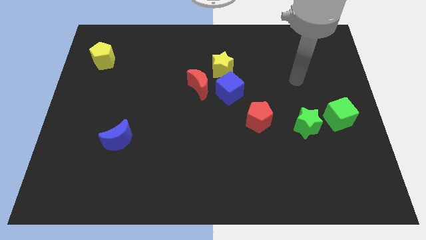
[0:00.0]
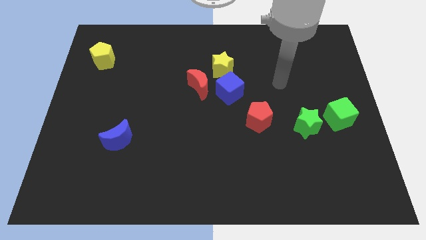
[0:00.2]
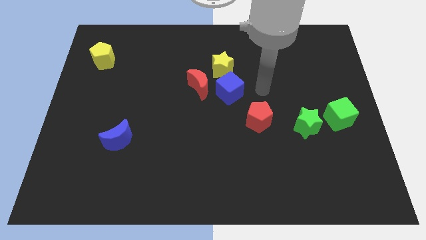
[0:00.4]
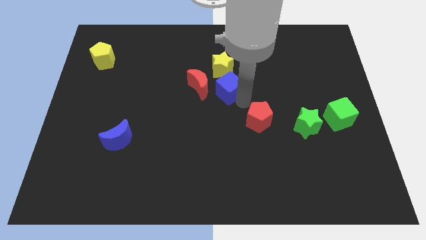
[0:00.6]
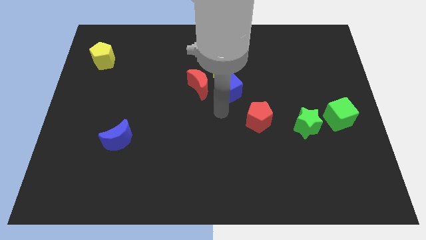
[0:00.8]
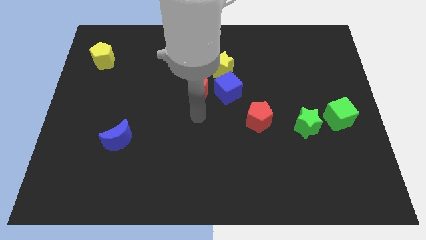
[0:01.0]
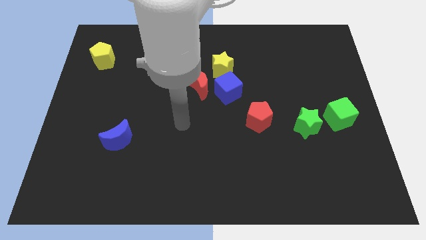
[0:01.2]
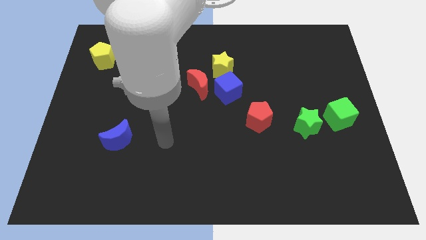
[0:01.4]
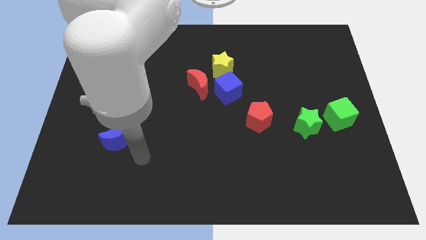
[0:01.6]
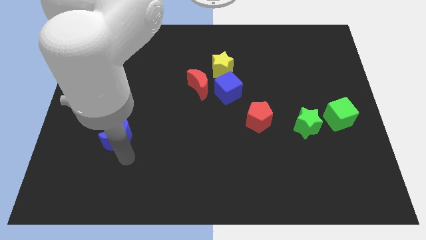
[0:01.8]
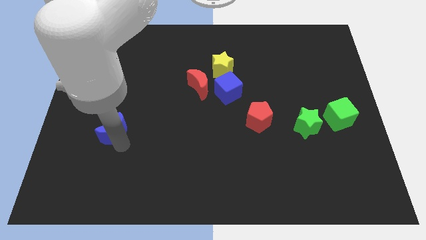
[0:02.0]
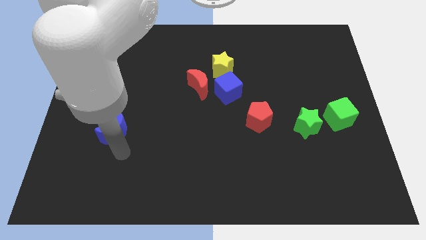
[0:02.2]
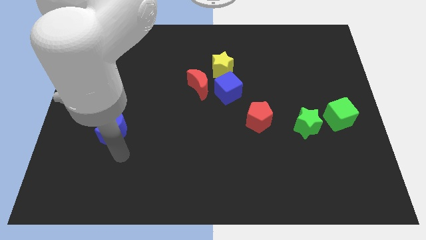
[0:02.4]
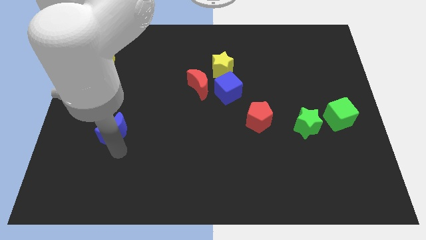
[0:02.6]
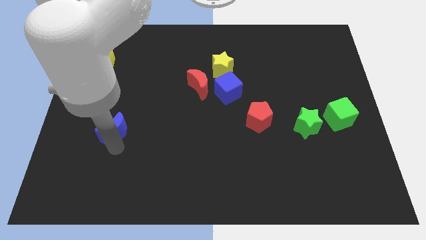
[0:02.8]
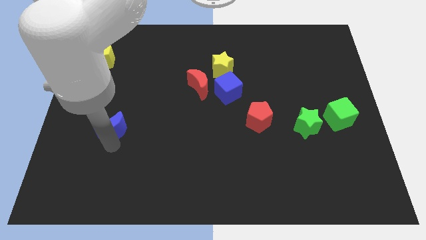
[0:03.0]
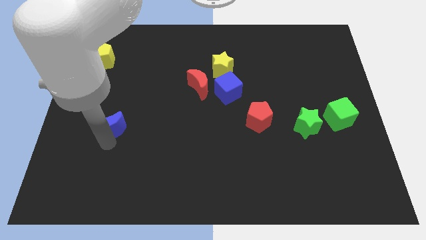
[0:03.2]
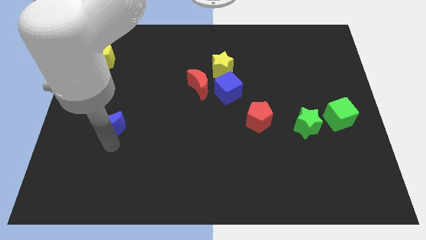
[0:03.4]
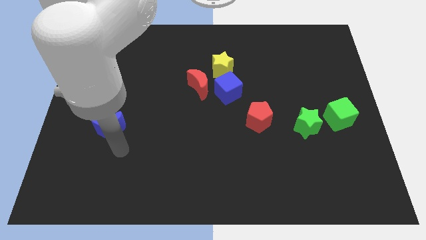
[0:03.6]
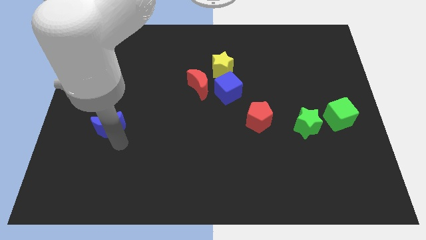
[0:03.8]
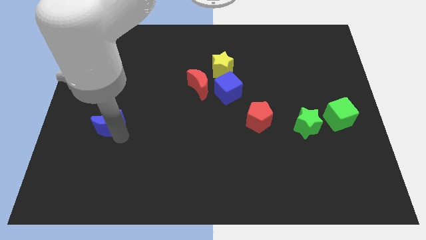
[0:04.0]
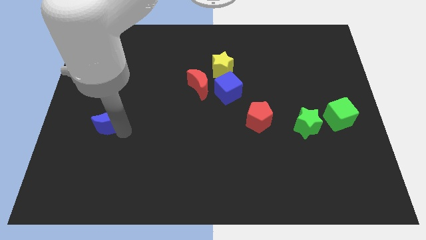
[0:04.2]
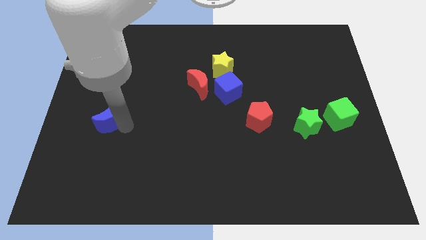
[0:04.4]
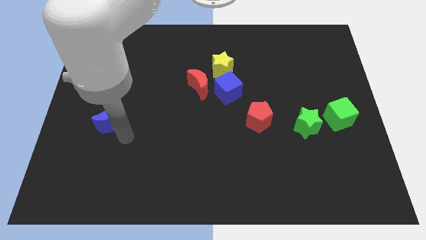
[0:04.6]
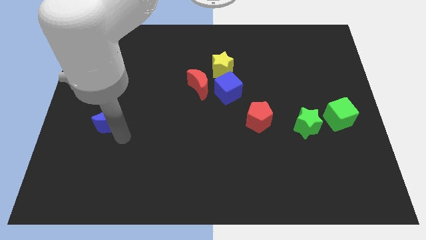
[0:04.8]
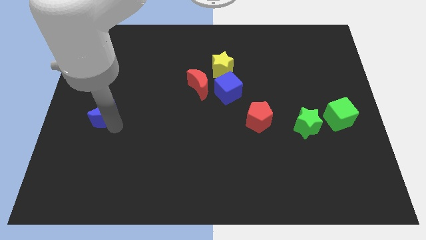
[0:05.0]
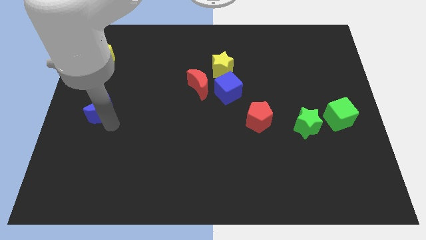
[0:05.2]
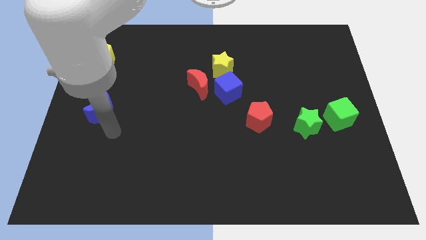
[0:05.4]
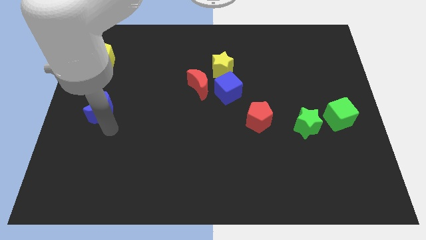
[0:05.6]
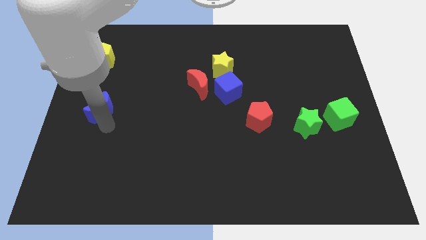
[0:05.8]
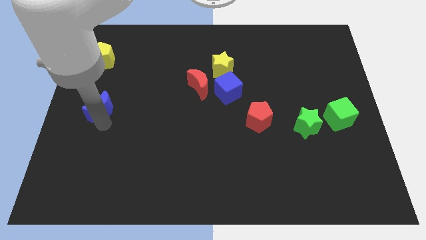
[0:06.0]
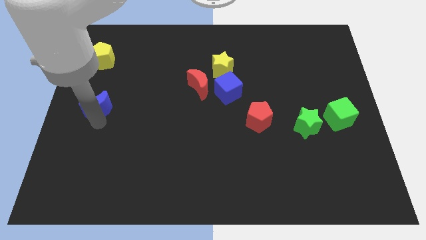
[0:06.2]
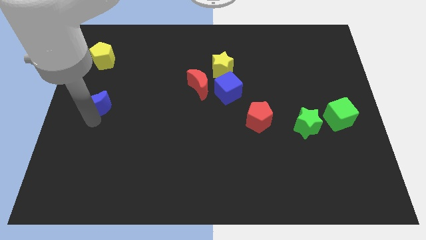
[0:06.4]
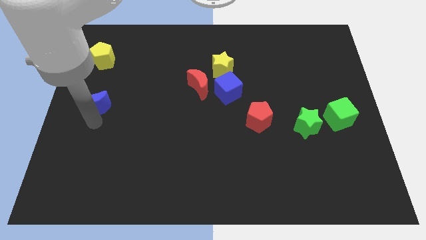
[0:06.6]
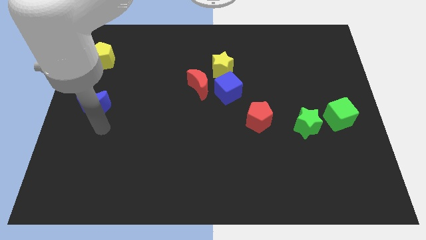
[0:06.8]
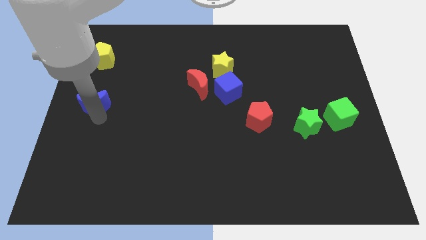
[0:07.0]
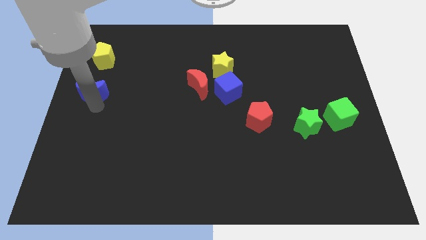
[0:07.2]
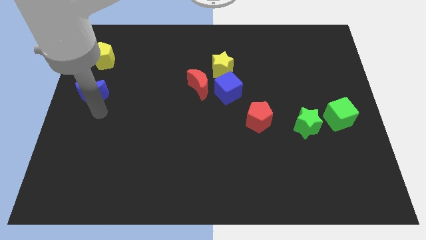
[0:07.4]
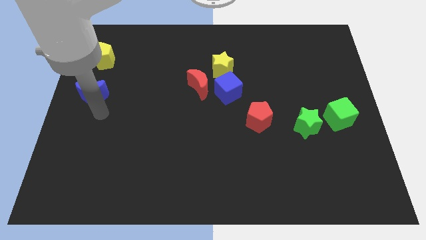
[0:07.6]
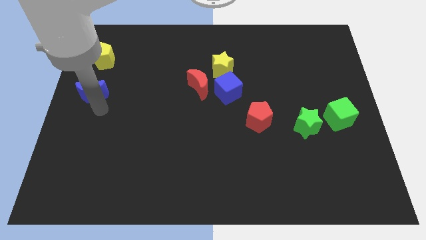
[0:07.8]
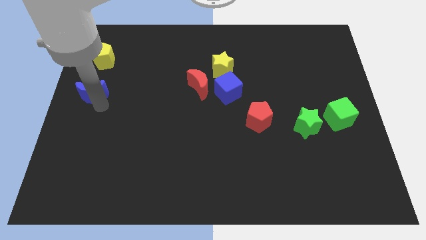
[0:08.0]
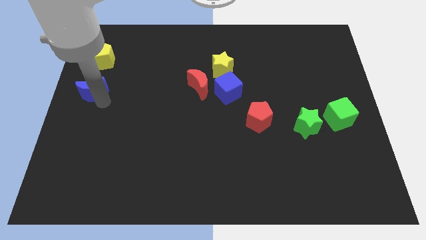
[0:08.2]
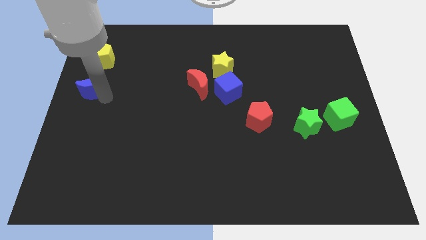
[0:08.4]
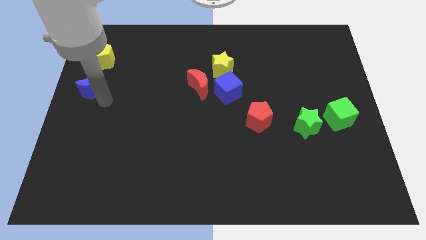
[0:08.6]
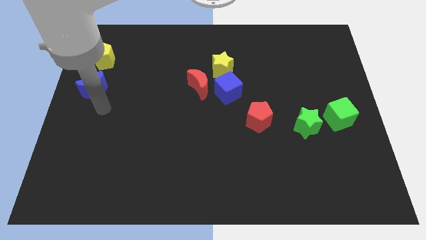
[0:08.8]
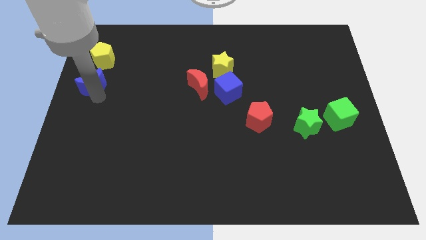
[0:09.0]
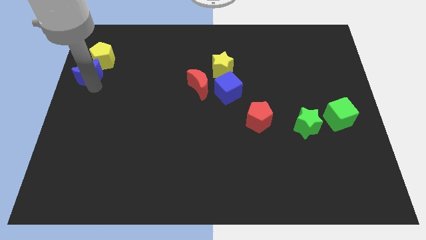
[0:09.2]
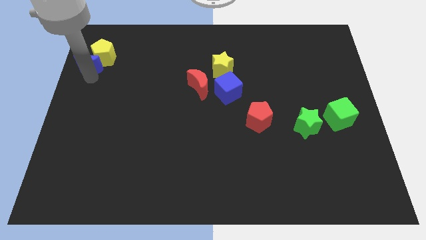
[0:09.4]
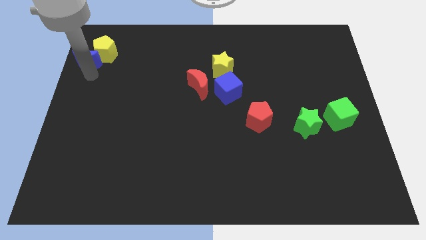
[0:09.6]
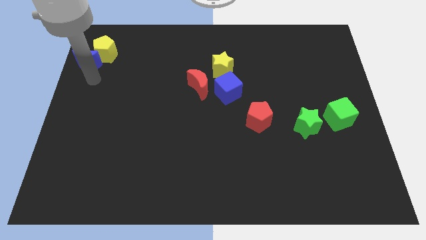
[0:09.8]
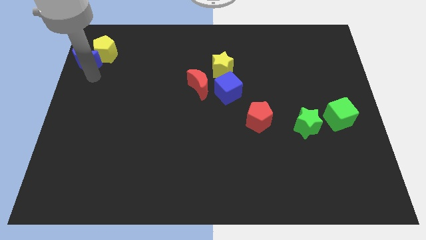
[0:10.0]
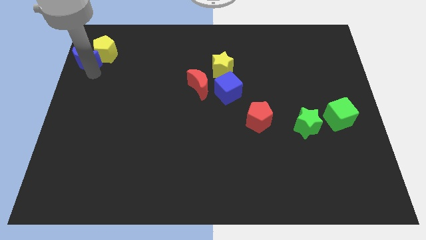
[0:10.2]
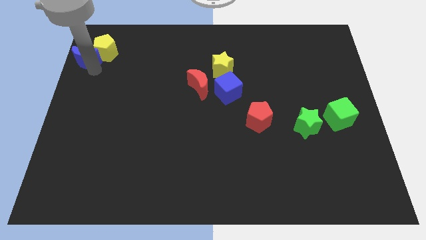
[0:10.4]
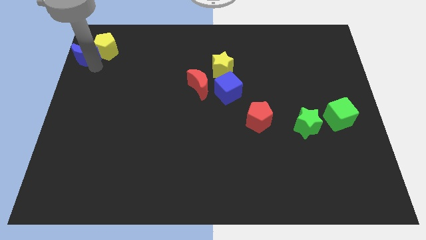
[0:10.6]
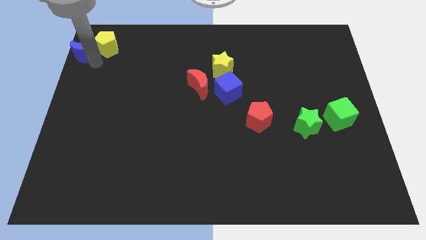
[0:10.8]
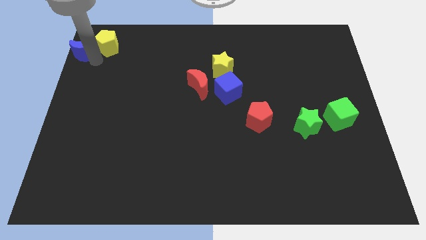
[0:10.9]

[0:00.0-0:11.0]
move the blue moon to the upper left corner
